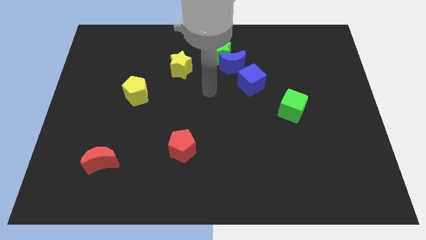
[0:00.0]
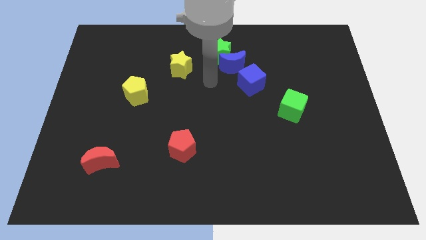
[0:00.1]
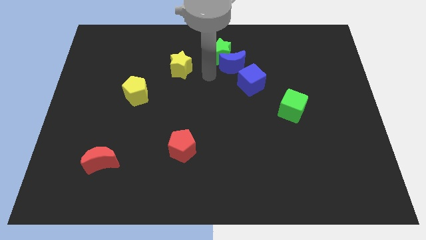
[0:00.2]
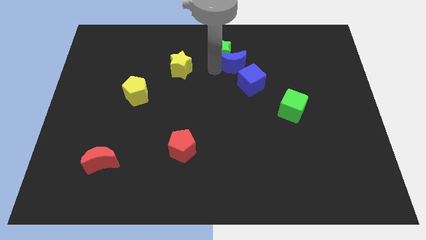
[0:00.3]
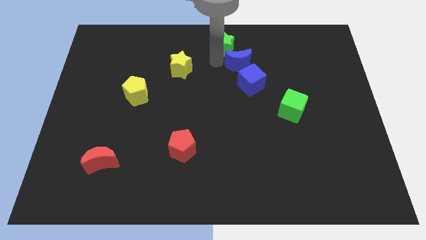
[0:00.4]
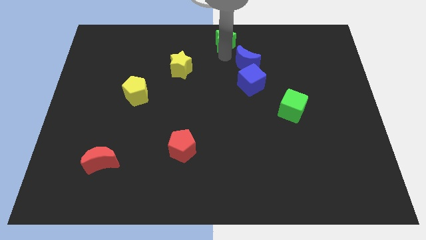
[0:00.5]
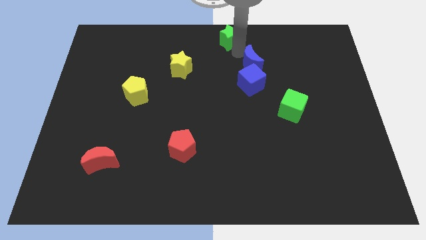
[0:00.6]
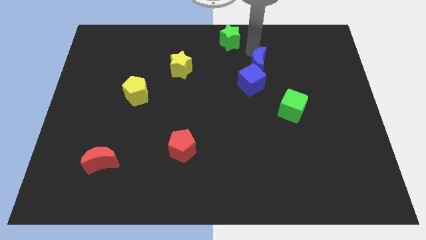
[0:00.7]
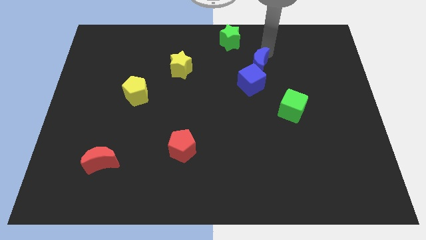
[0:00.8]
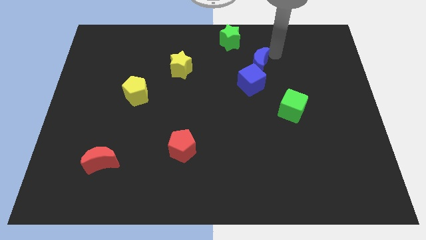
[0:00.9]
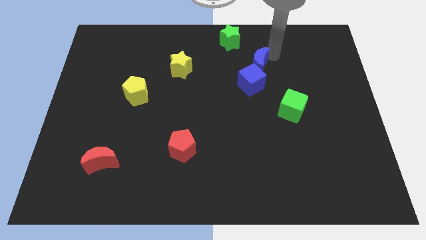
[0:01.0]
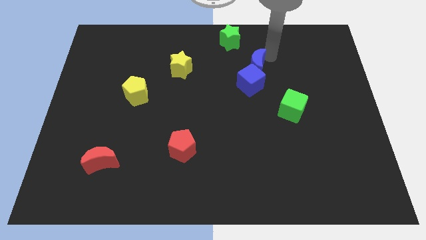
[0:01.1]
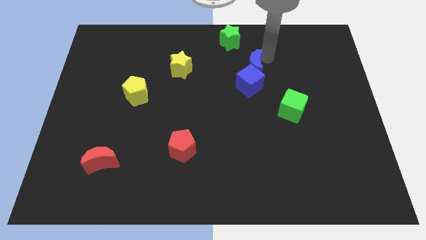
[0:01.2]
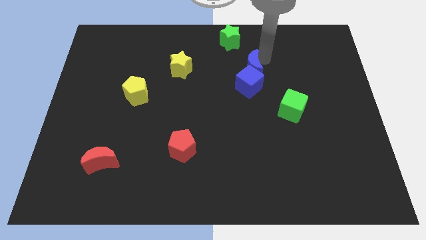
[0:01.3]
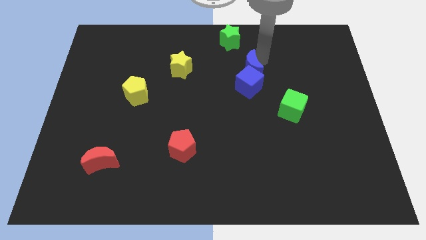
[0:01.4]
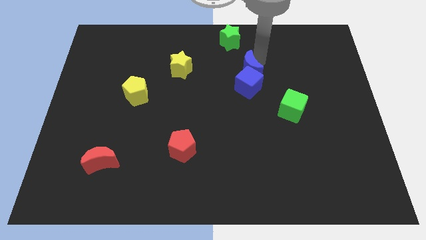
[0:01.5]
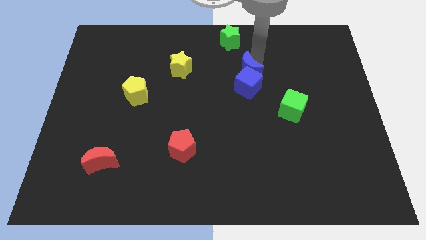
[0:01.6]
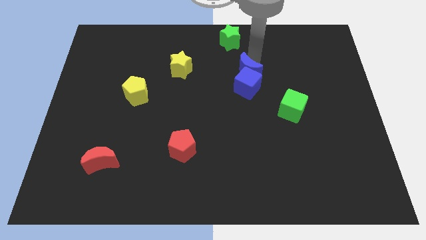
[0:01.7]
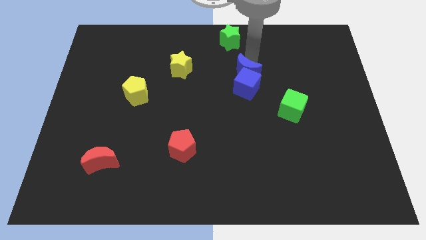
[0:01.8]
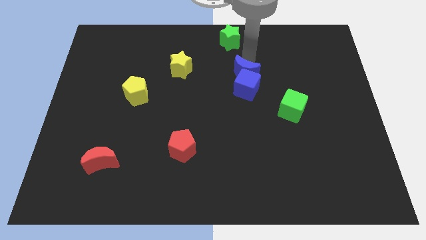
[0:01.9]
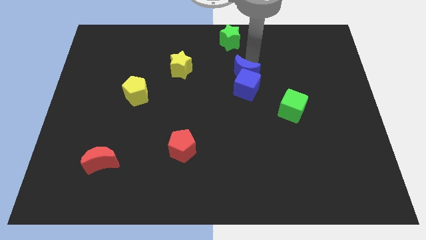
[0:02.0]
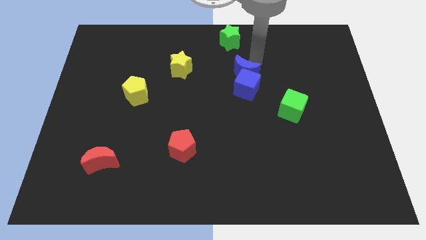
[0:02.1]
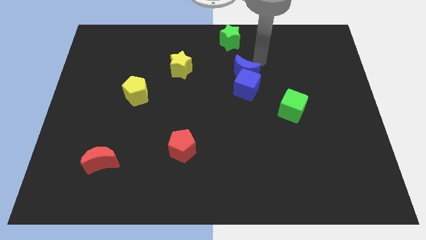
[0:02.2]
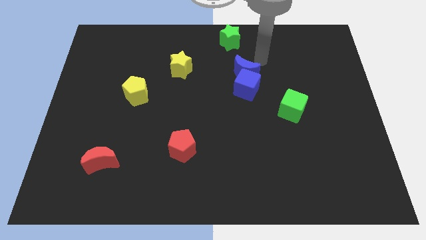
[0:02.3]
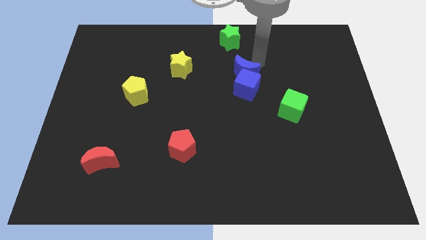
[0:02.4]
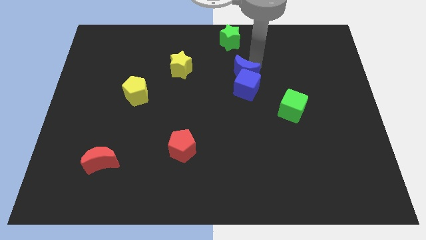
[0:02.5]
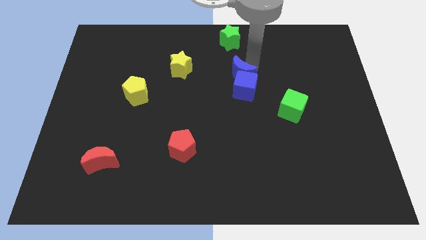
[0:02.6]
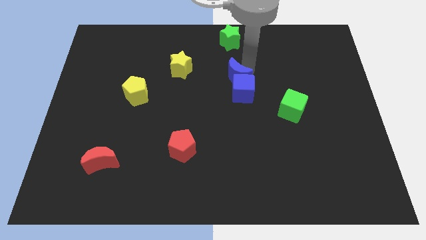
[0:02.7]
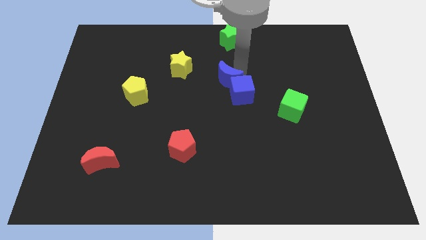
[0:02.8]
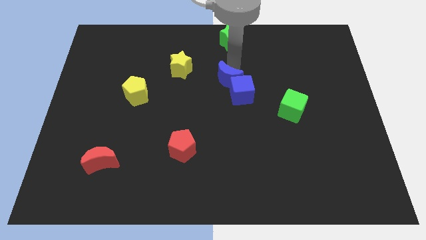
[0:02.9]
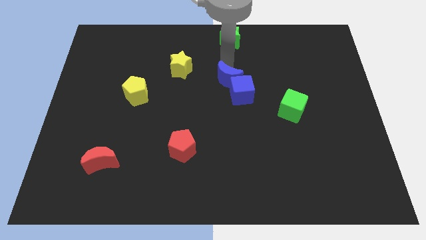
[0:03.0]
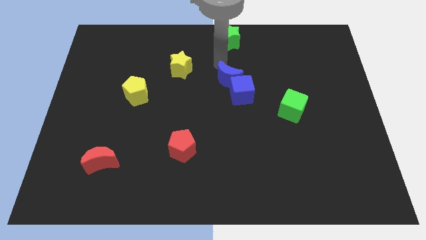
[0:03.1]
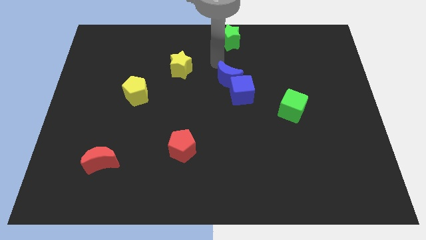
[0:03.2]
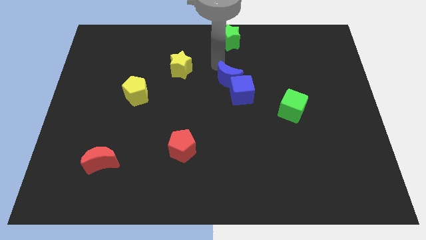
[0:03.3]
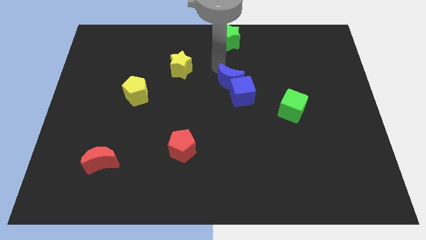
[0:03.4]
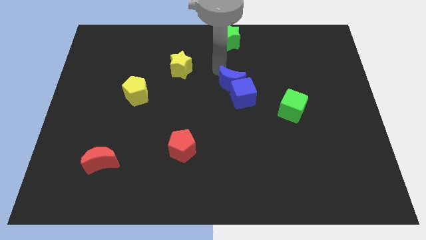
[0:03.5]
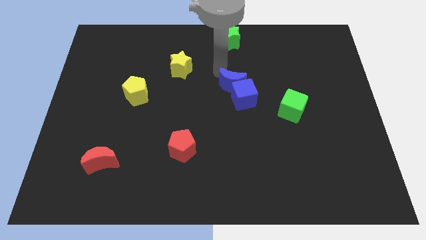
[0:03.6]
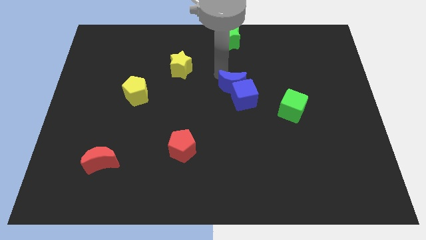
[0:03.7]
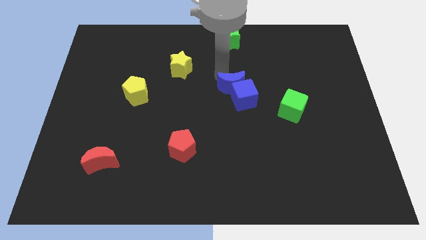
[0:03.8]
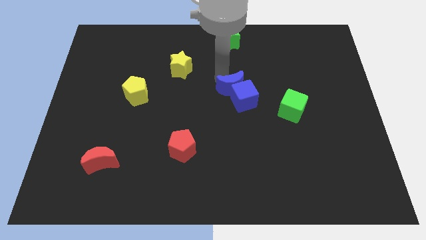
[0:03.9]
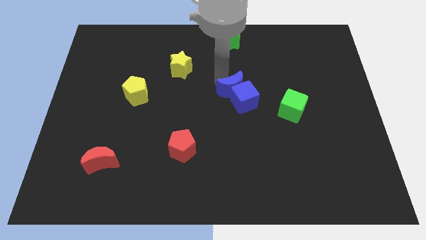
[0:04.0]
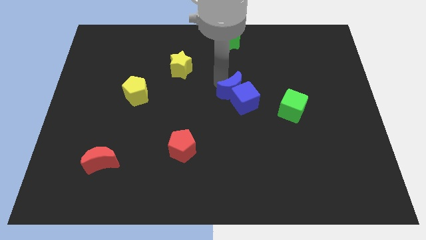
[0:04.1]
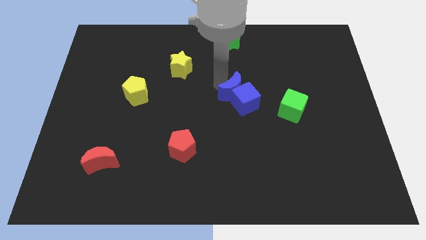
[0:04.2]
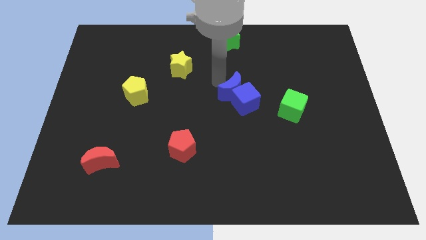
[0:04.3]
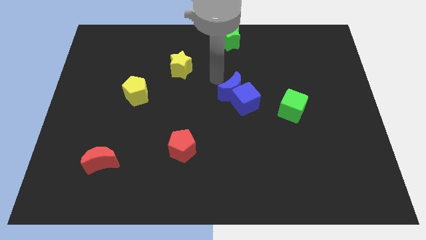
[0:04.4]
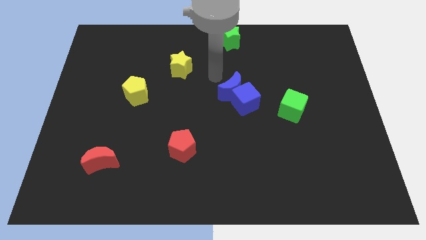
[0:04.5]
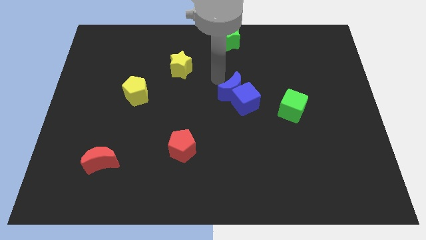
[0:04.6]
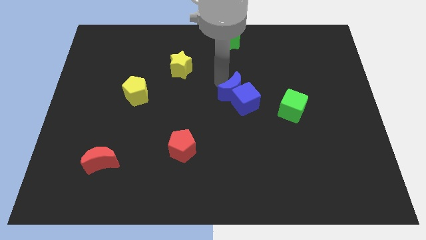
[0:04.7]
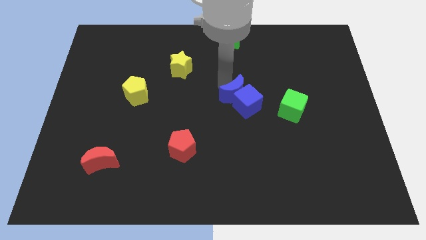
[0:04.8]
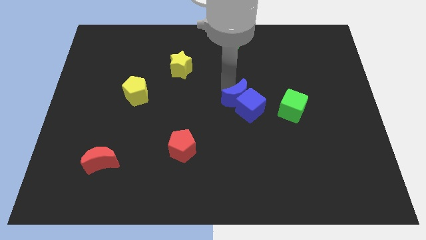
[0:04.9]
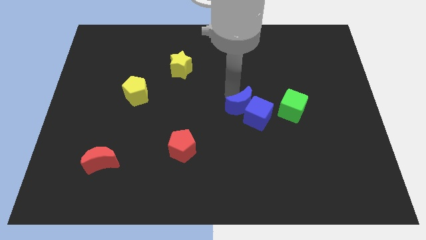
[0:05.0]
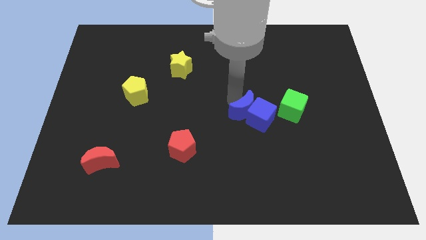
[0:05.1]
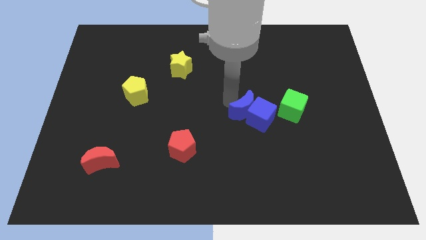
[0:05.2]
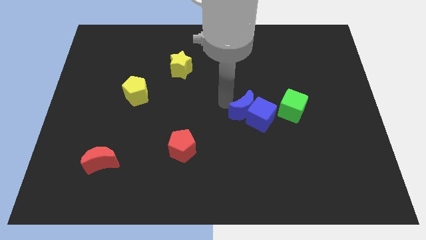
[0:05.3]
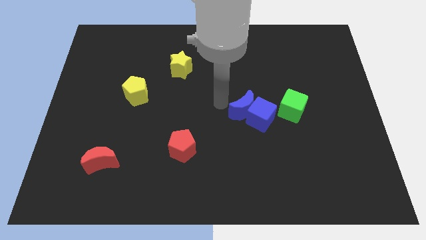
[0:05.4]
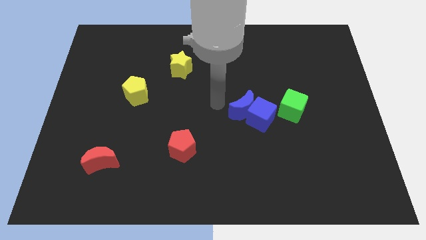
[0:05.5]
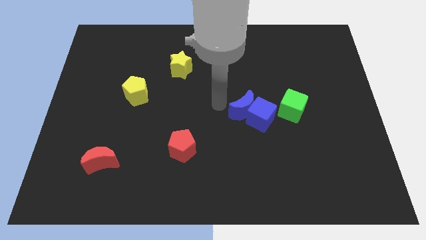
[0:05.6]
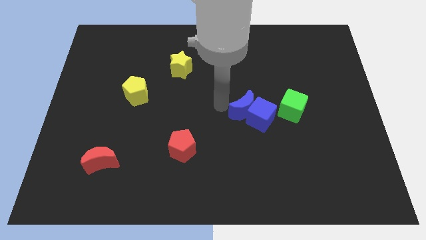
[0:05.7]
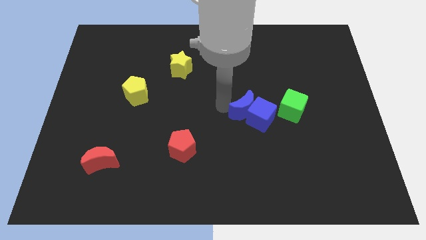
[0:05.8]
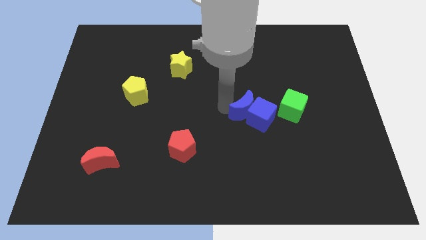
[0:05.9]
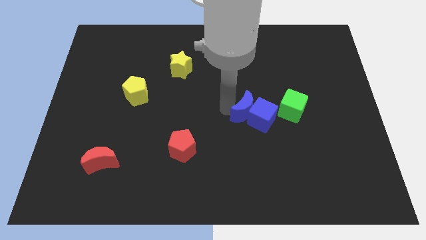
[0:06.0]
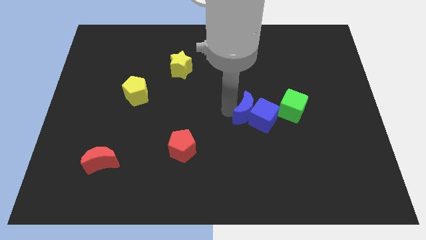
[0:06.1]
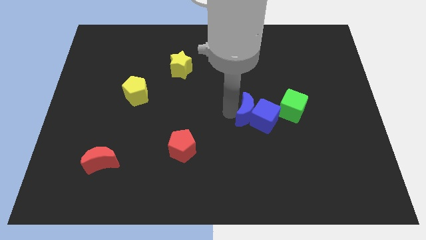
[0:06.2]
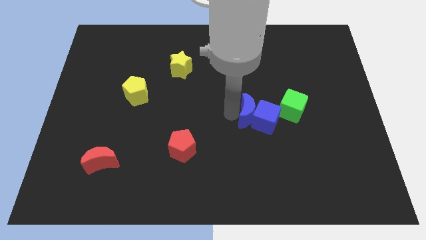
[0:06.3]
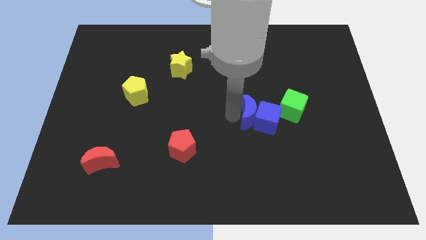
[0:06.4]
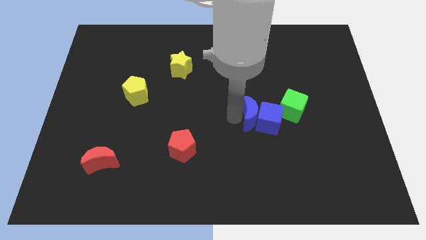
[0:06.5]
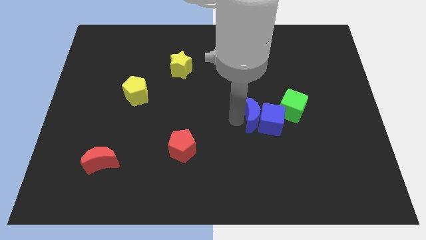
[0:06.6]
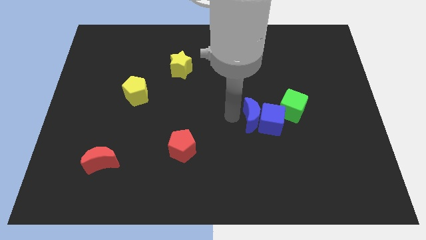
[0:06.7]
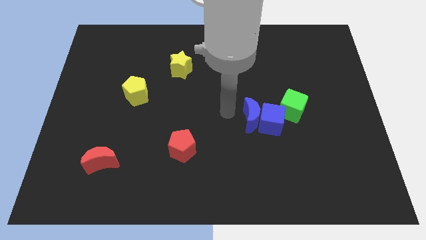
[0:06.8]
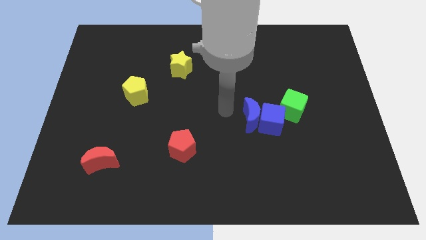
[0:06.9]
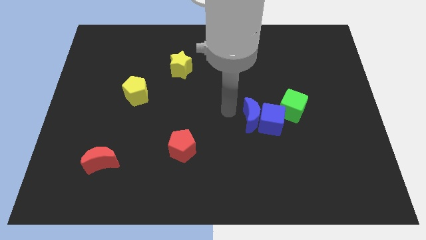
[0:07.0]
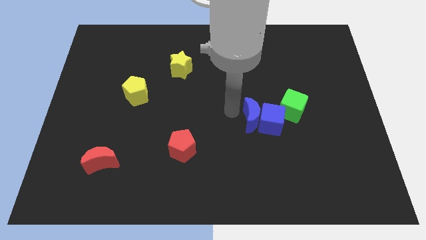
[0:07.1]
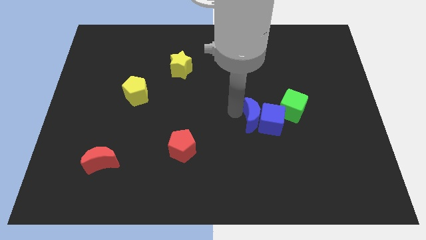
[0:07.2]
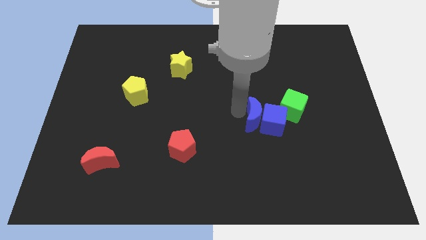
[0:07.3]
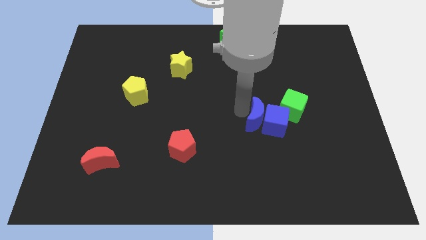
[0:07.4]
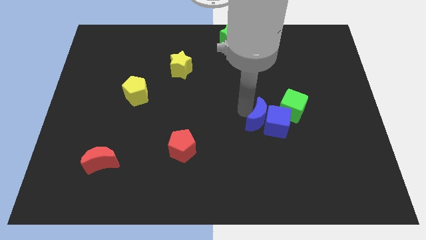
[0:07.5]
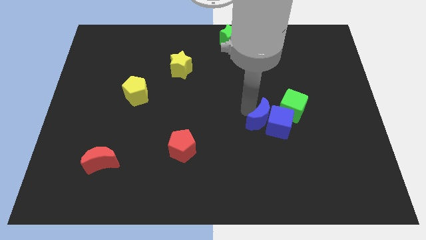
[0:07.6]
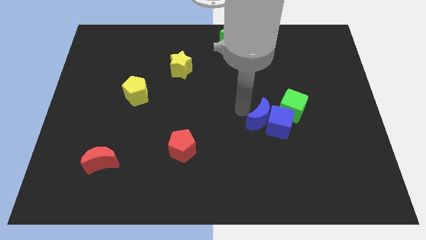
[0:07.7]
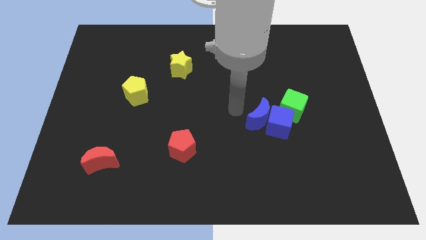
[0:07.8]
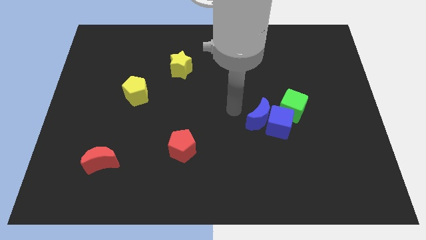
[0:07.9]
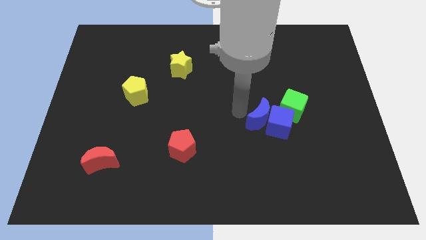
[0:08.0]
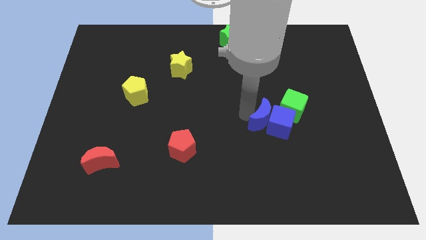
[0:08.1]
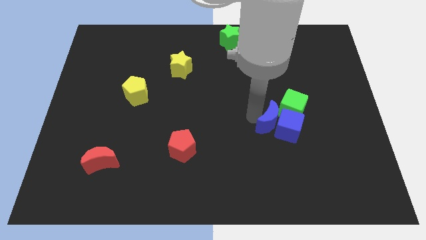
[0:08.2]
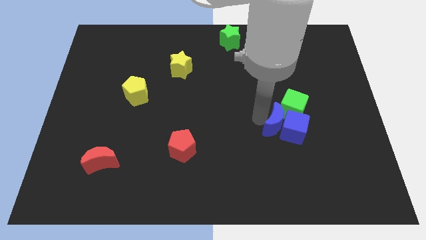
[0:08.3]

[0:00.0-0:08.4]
move the blue moon below the green cube
